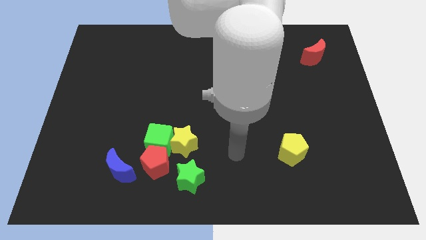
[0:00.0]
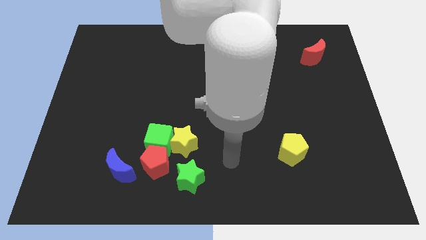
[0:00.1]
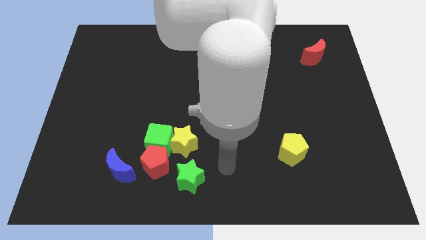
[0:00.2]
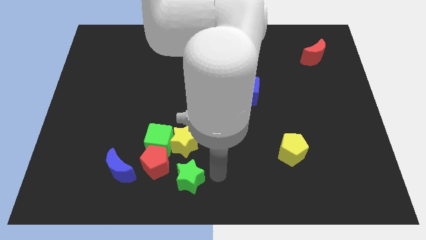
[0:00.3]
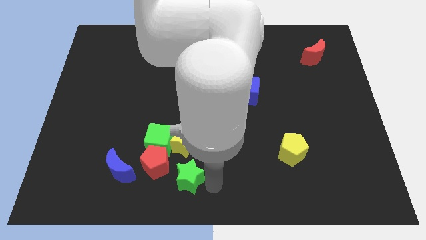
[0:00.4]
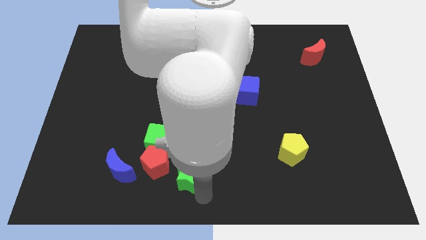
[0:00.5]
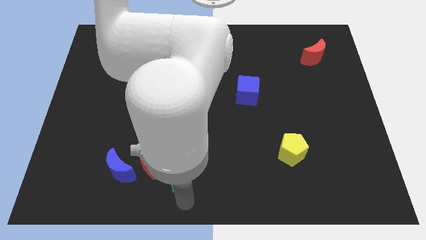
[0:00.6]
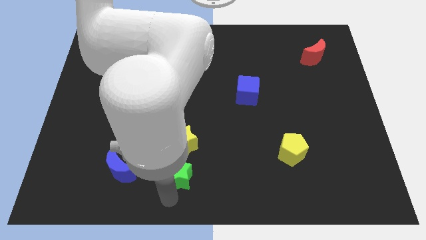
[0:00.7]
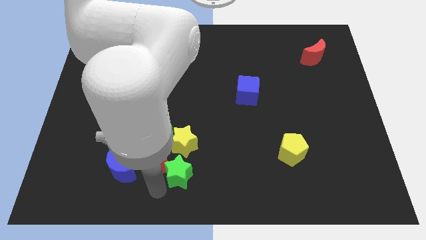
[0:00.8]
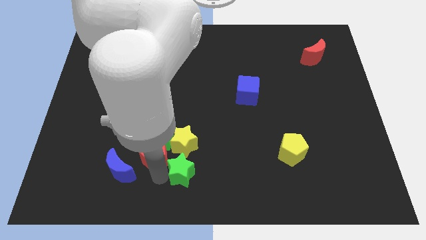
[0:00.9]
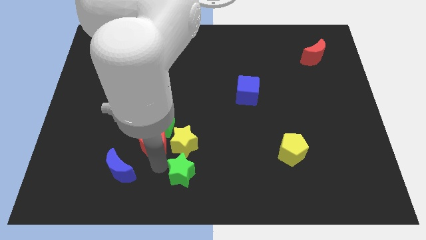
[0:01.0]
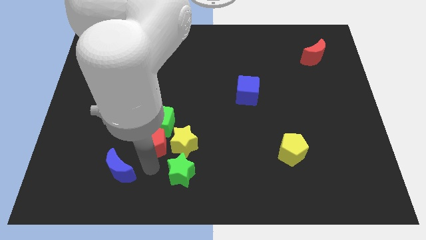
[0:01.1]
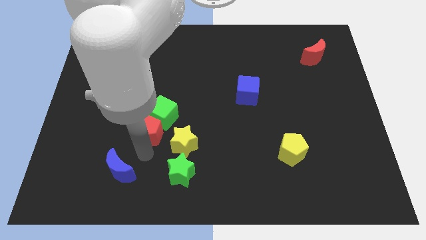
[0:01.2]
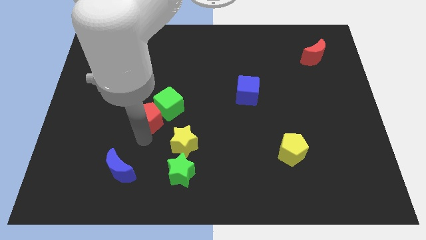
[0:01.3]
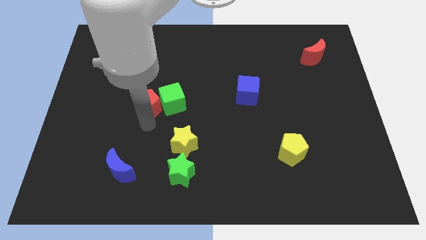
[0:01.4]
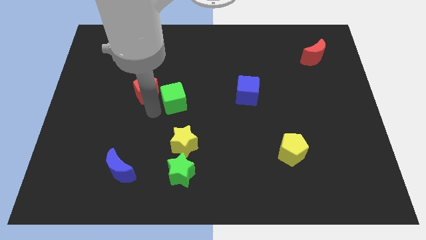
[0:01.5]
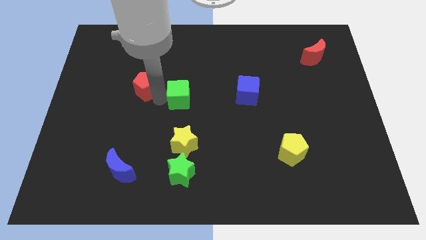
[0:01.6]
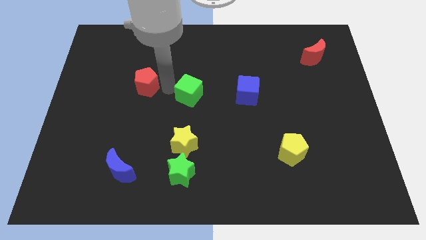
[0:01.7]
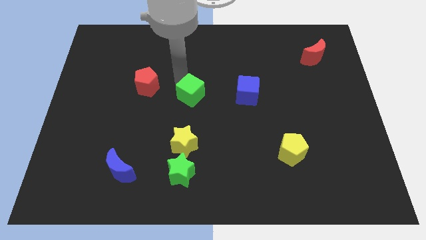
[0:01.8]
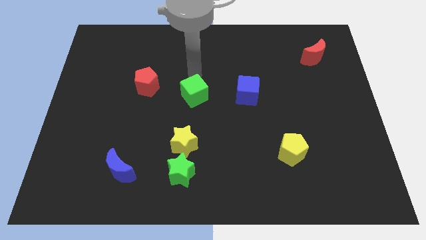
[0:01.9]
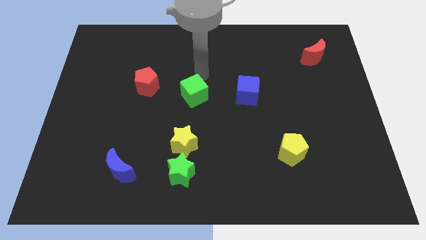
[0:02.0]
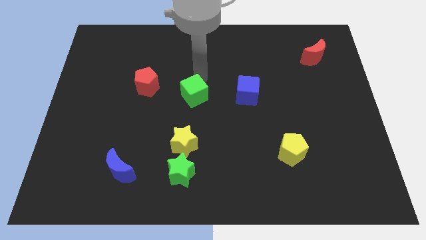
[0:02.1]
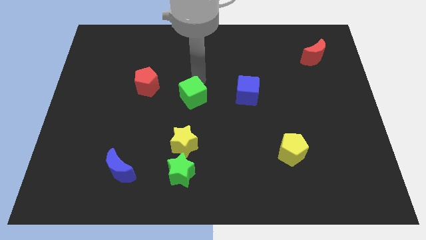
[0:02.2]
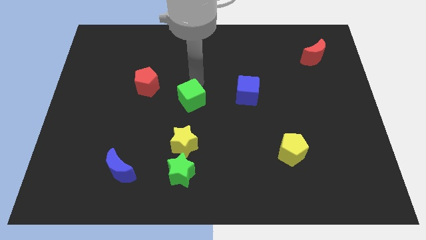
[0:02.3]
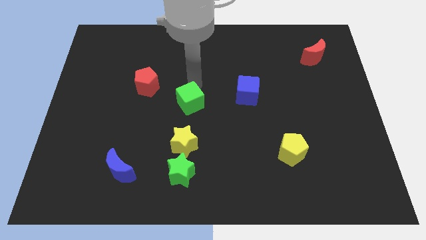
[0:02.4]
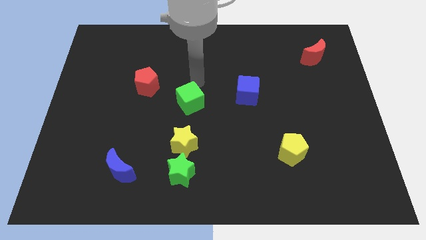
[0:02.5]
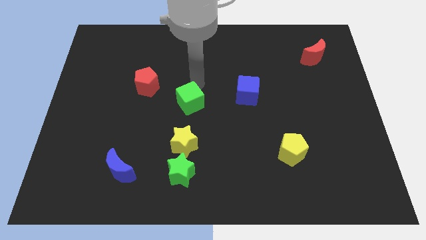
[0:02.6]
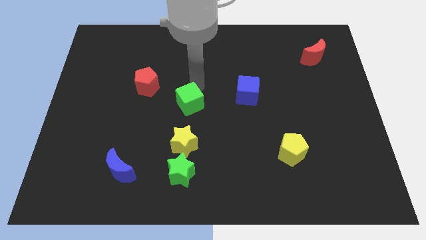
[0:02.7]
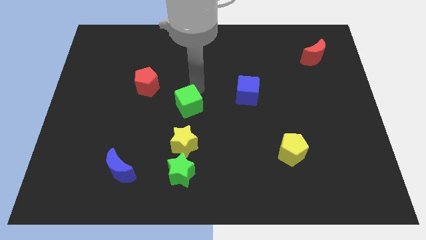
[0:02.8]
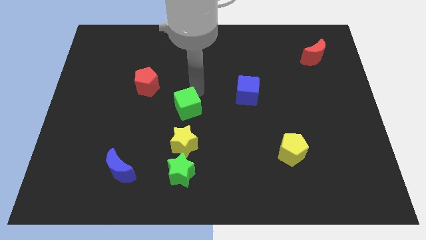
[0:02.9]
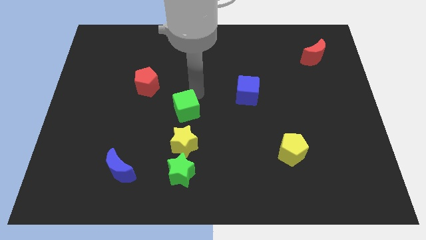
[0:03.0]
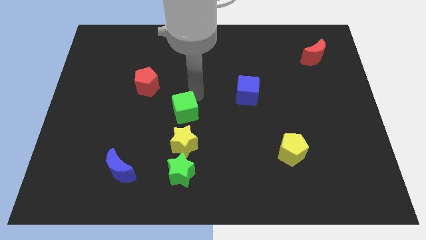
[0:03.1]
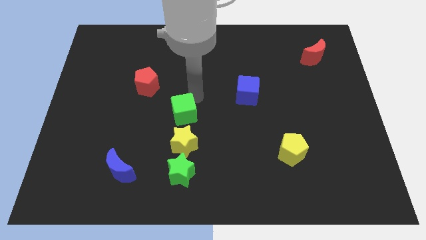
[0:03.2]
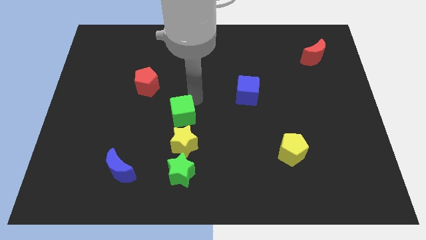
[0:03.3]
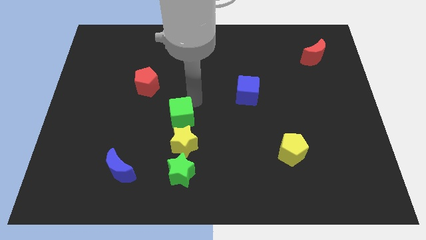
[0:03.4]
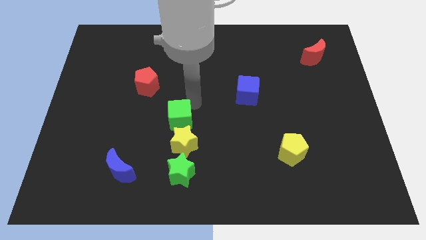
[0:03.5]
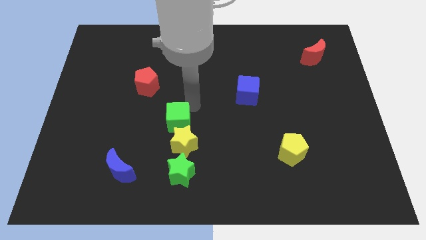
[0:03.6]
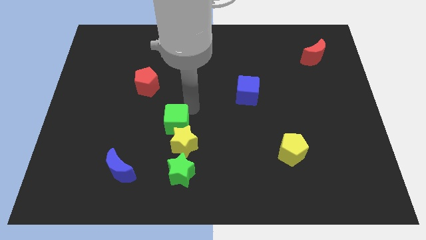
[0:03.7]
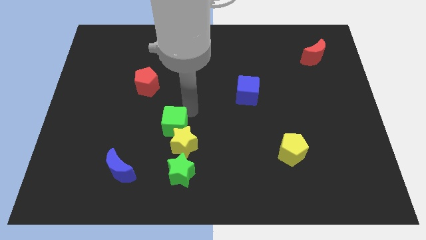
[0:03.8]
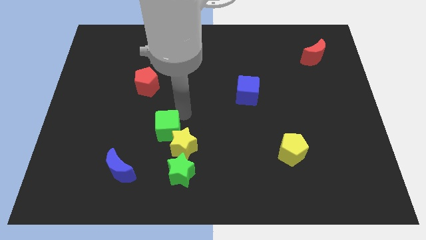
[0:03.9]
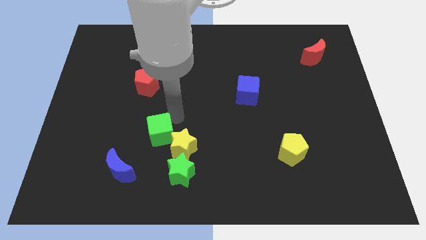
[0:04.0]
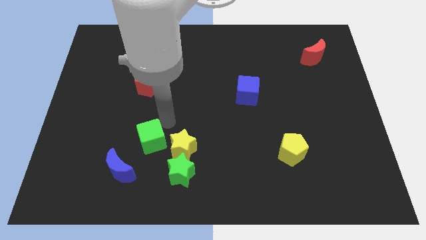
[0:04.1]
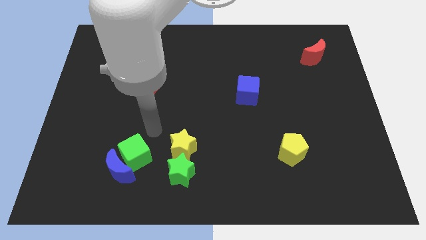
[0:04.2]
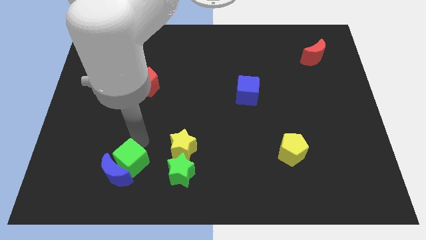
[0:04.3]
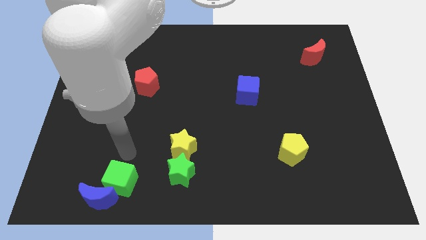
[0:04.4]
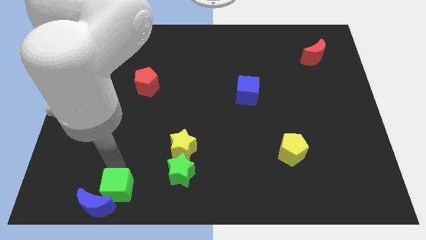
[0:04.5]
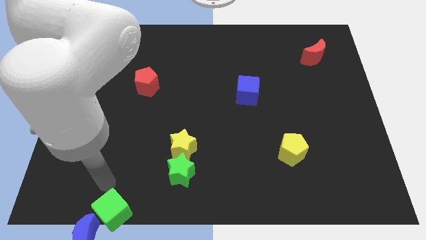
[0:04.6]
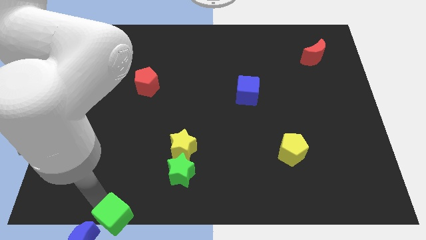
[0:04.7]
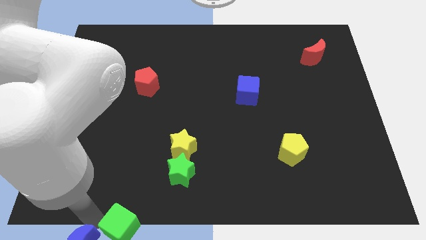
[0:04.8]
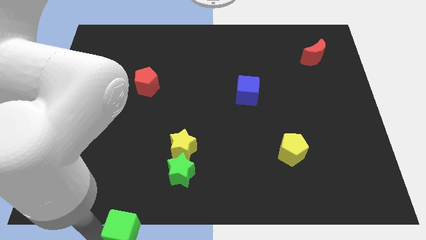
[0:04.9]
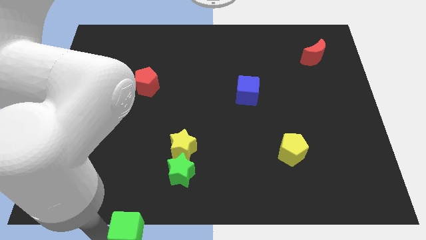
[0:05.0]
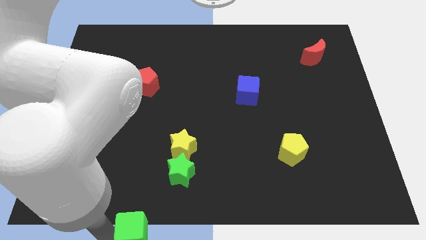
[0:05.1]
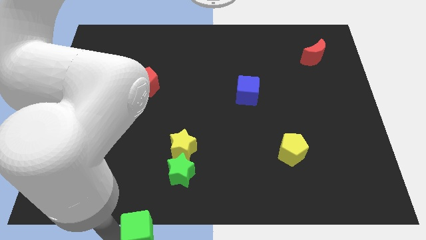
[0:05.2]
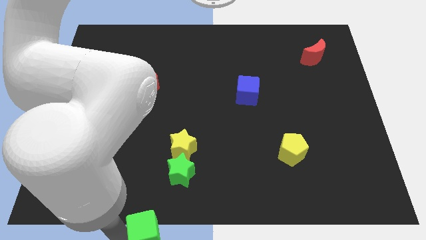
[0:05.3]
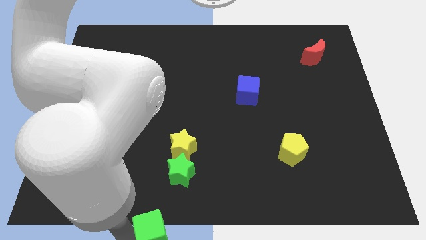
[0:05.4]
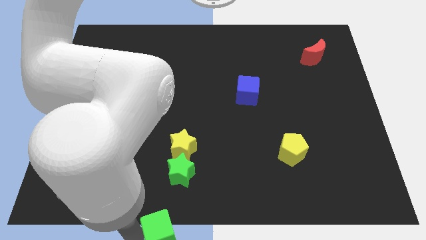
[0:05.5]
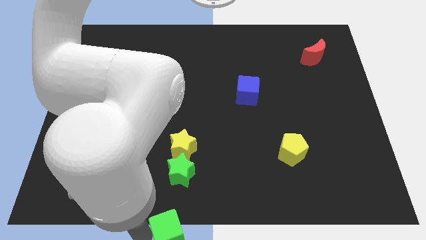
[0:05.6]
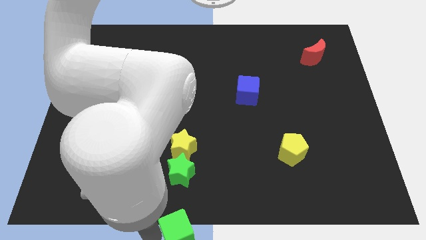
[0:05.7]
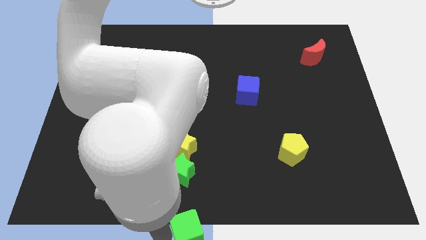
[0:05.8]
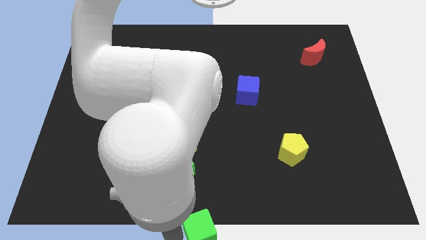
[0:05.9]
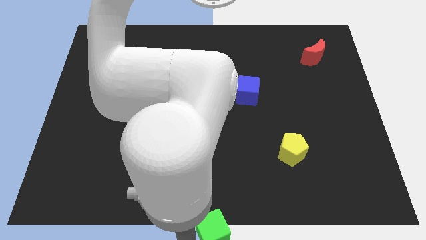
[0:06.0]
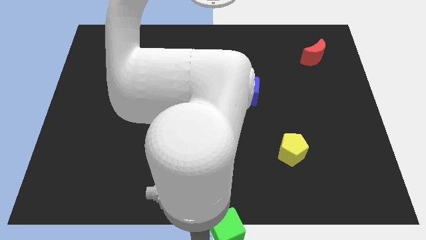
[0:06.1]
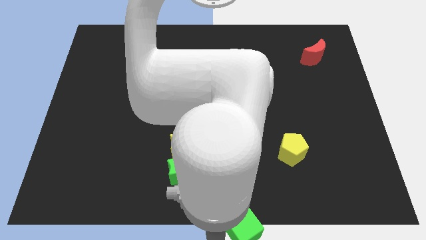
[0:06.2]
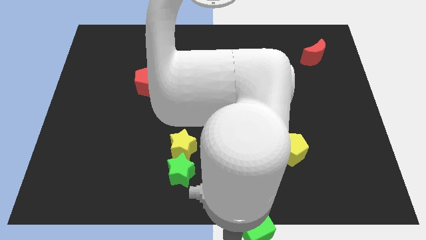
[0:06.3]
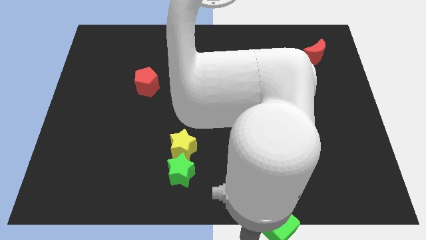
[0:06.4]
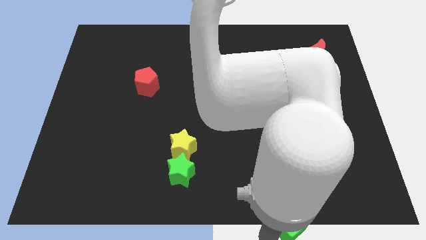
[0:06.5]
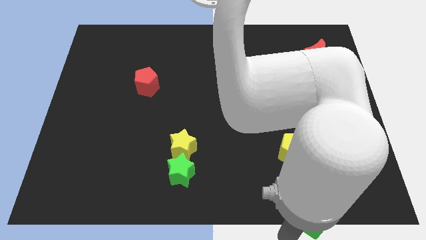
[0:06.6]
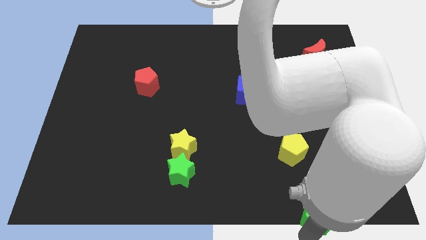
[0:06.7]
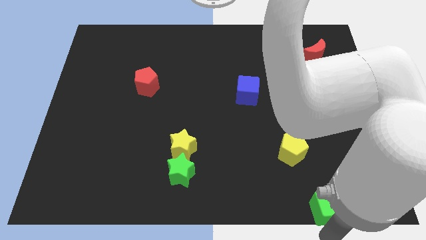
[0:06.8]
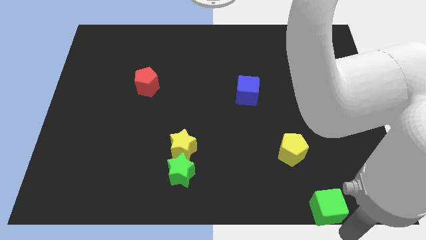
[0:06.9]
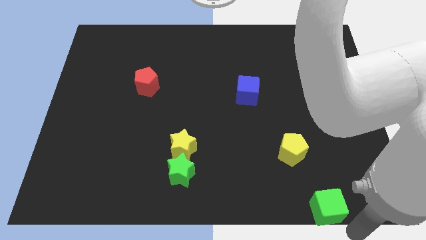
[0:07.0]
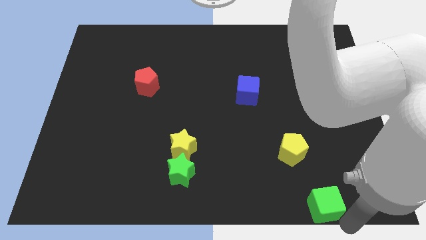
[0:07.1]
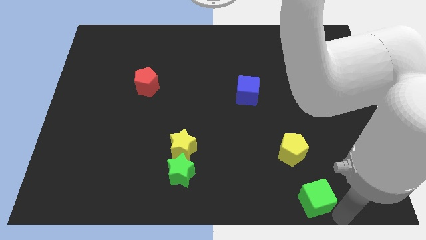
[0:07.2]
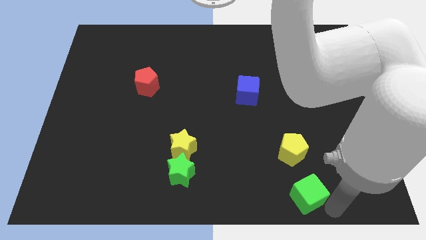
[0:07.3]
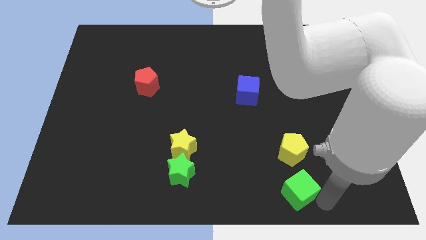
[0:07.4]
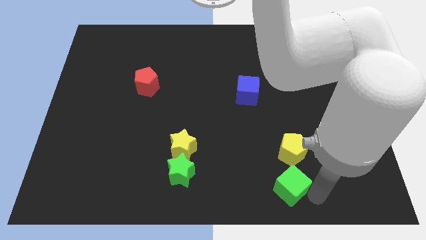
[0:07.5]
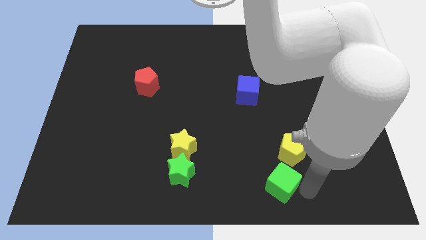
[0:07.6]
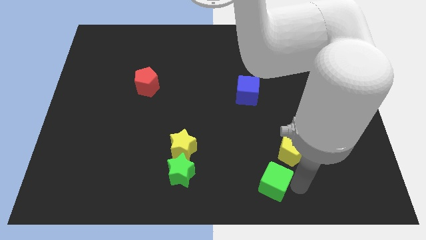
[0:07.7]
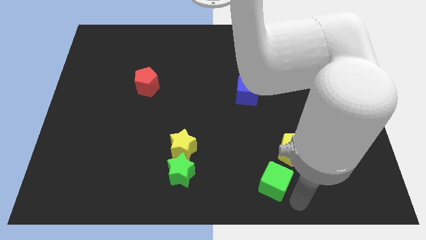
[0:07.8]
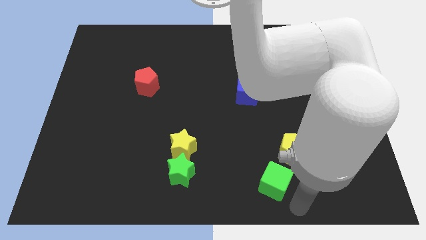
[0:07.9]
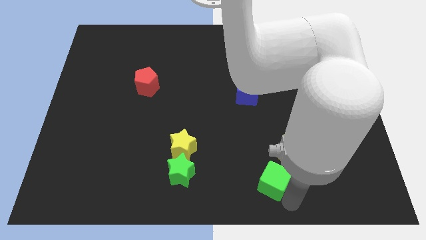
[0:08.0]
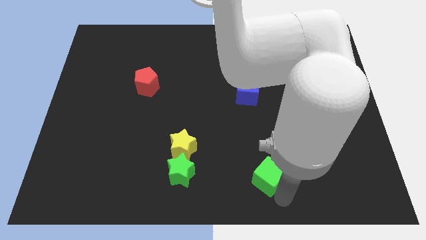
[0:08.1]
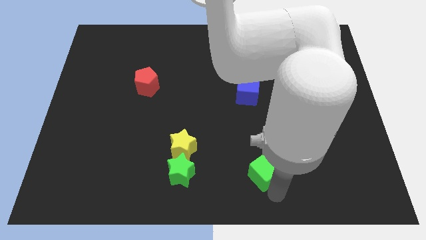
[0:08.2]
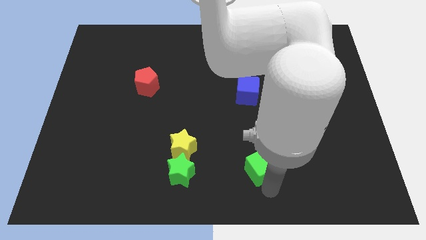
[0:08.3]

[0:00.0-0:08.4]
slide the green cube right of the green star
